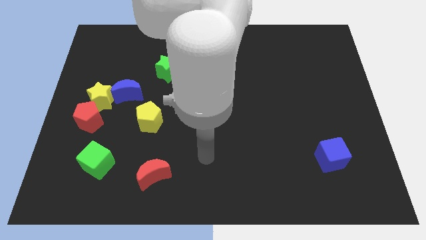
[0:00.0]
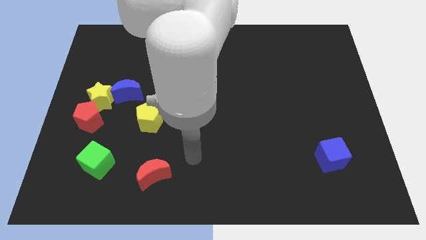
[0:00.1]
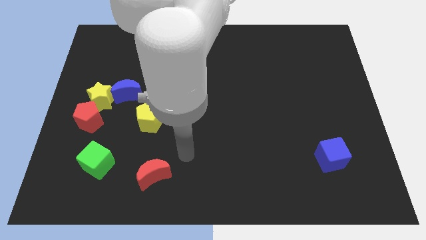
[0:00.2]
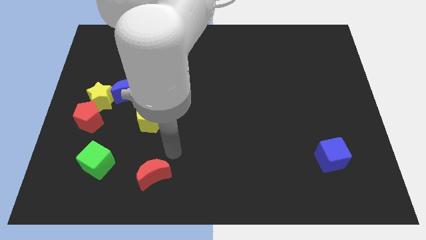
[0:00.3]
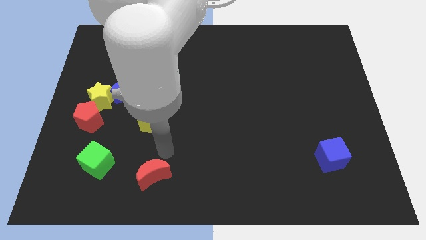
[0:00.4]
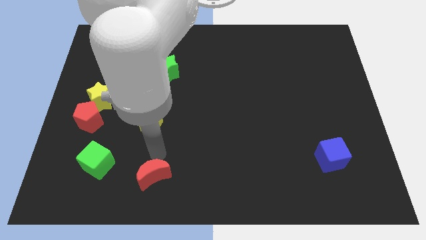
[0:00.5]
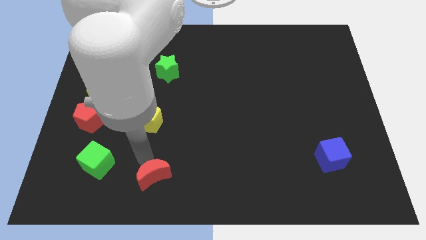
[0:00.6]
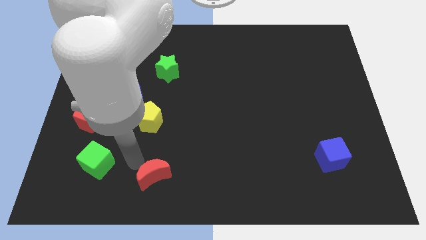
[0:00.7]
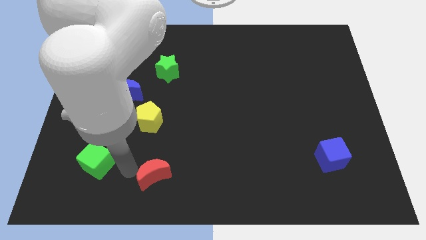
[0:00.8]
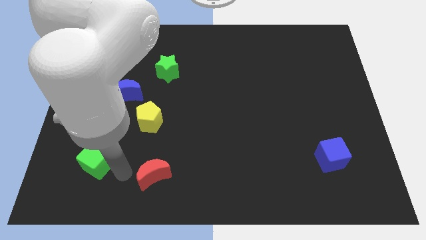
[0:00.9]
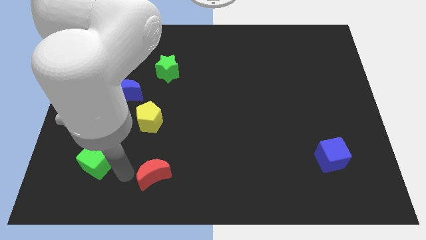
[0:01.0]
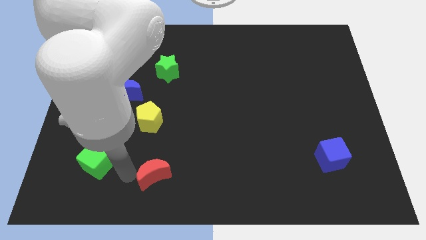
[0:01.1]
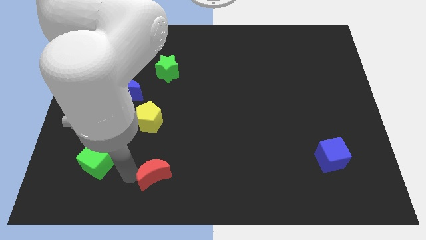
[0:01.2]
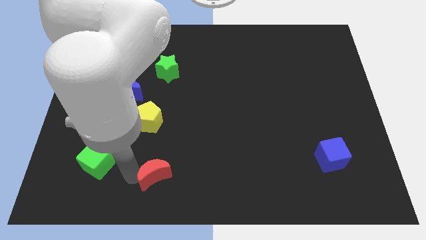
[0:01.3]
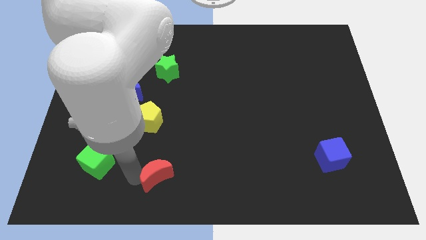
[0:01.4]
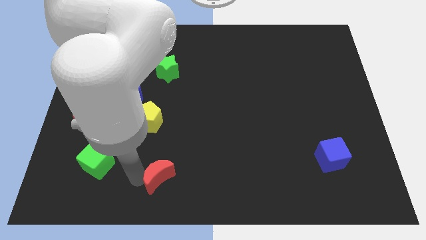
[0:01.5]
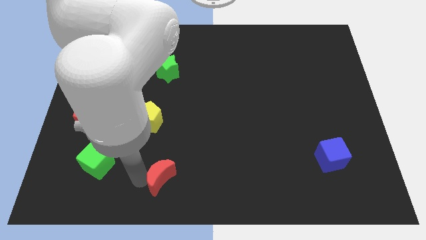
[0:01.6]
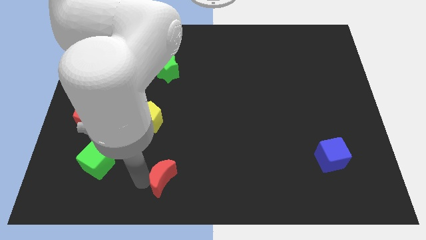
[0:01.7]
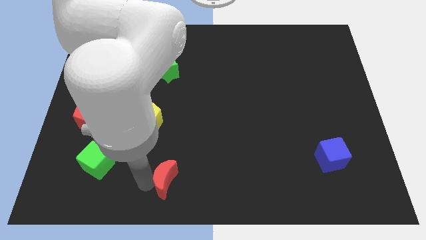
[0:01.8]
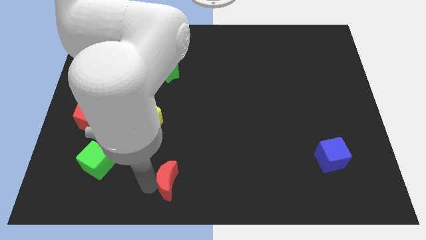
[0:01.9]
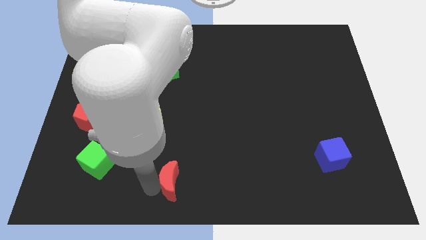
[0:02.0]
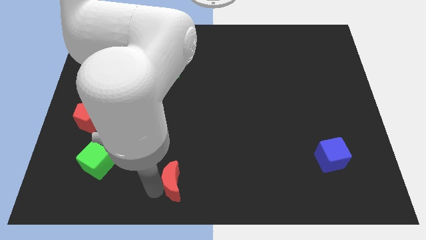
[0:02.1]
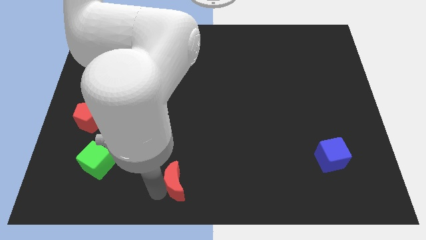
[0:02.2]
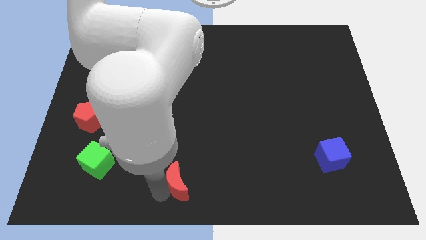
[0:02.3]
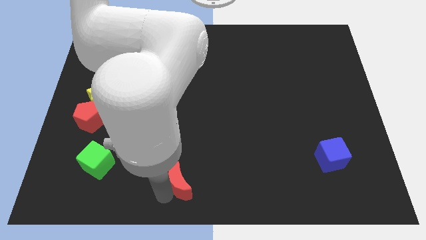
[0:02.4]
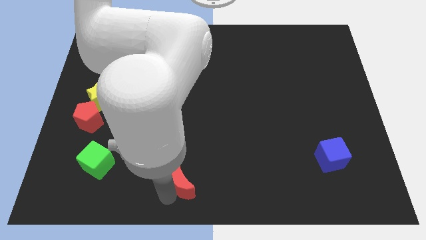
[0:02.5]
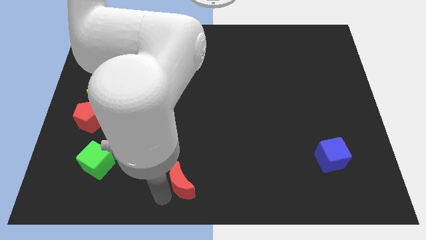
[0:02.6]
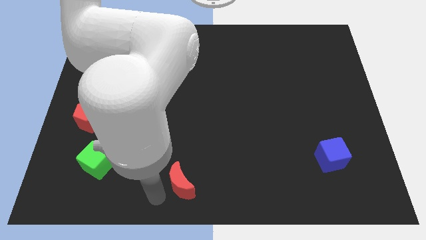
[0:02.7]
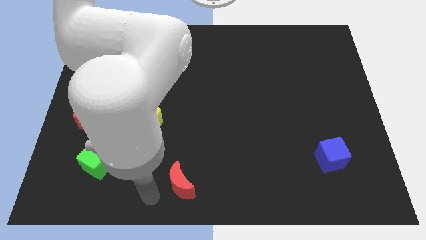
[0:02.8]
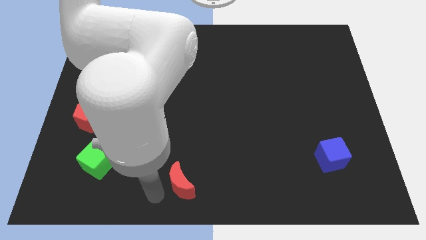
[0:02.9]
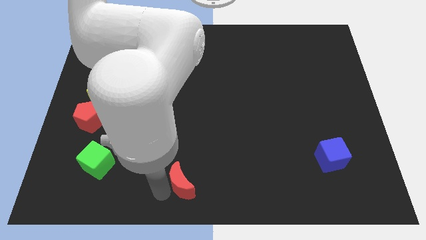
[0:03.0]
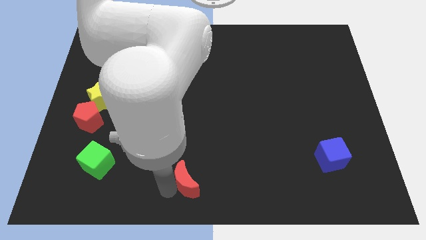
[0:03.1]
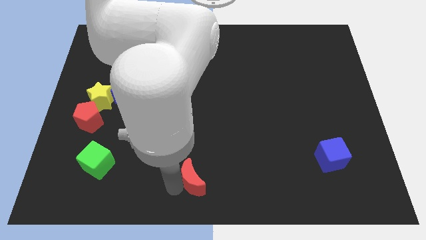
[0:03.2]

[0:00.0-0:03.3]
slightly push the red moon to the right

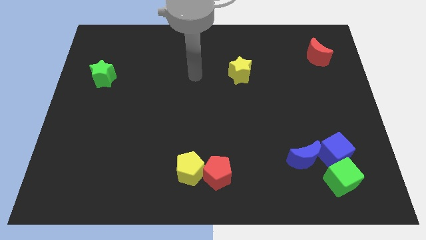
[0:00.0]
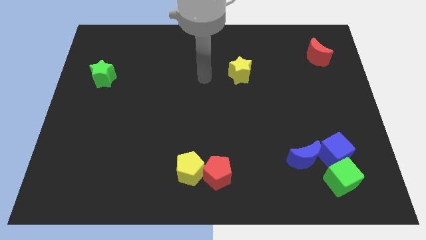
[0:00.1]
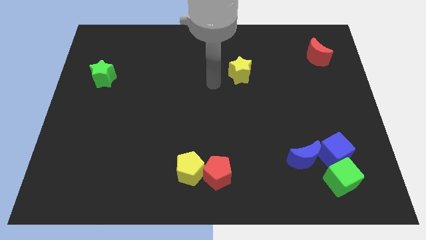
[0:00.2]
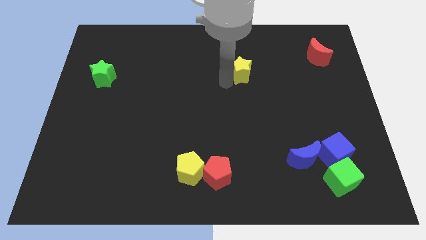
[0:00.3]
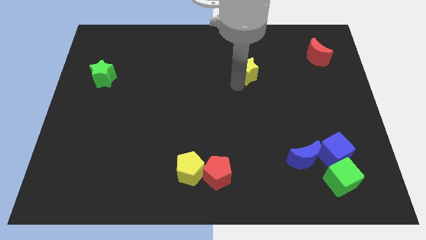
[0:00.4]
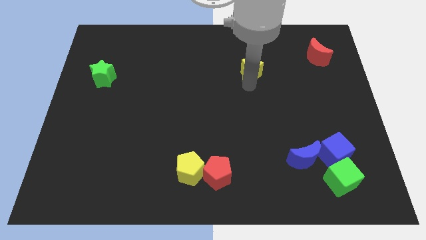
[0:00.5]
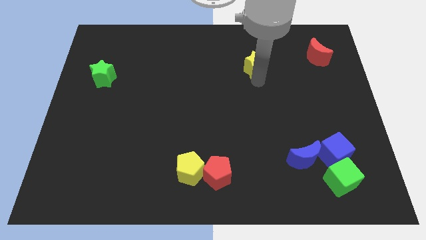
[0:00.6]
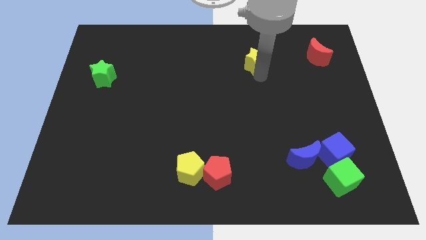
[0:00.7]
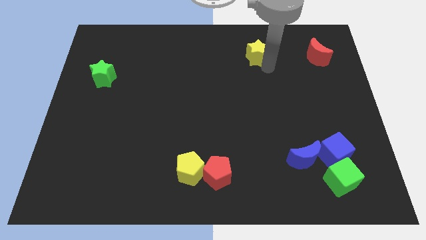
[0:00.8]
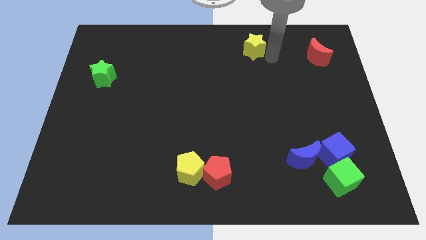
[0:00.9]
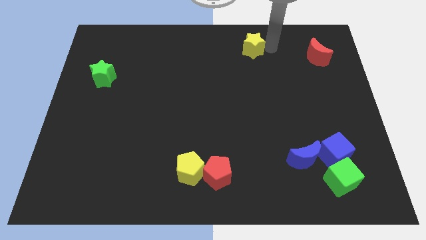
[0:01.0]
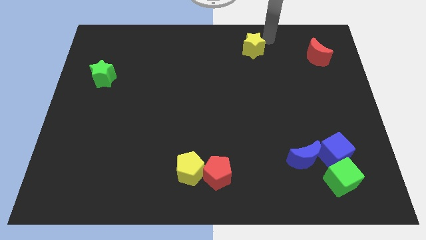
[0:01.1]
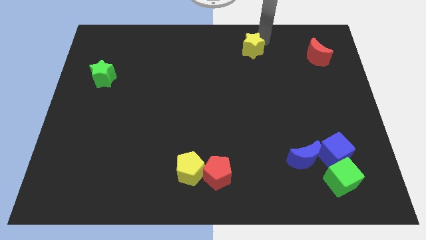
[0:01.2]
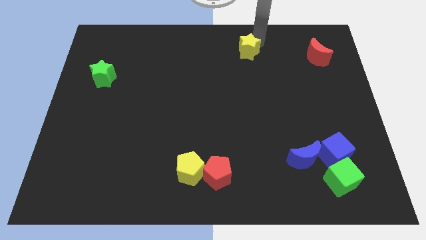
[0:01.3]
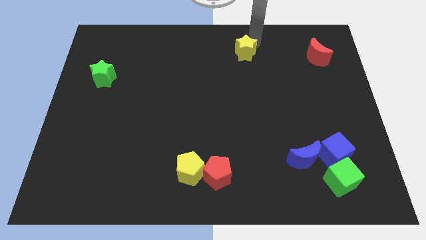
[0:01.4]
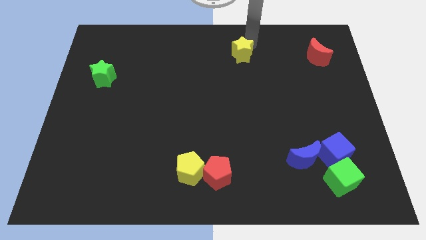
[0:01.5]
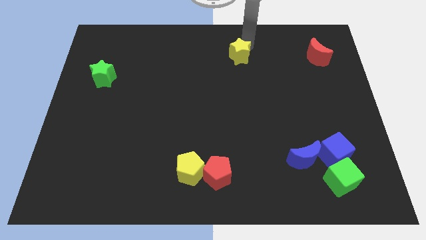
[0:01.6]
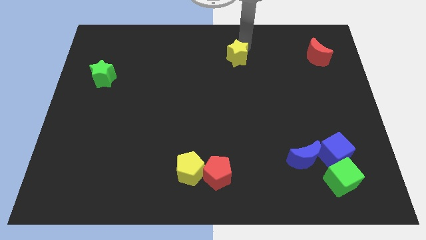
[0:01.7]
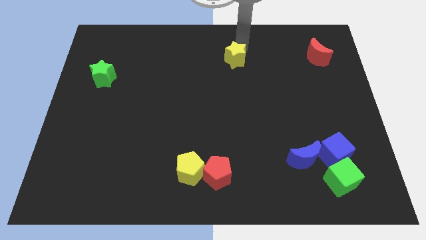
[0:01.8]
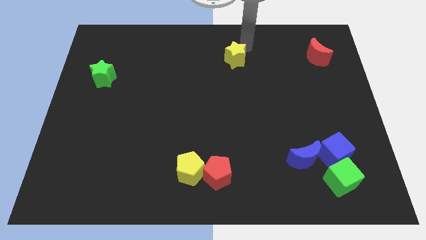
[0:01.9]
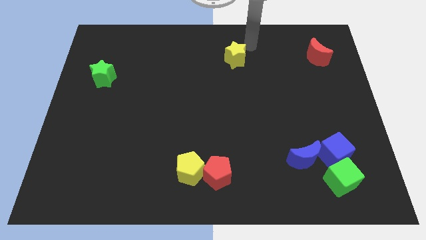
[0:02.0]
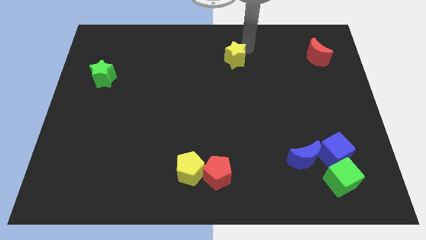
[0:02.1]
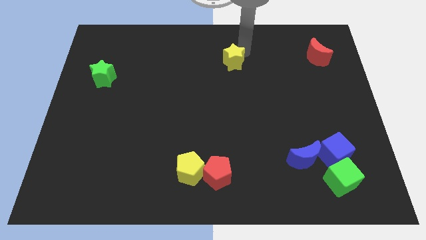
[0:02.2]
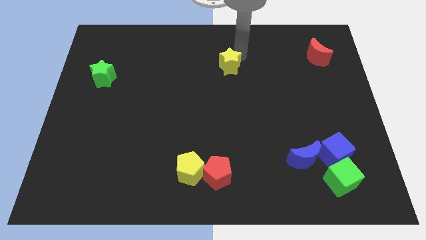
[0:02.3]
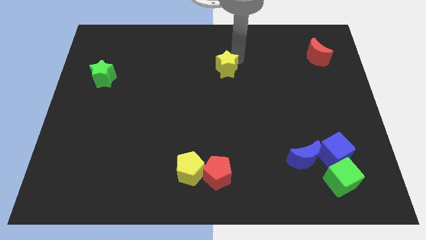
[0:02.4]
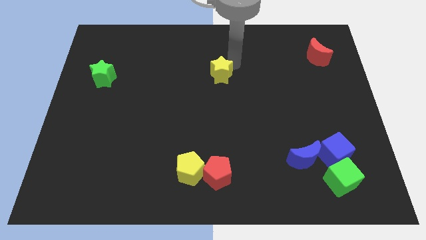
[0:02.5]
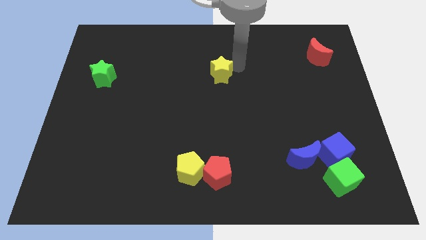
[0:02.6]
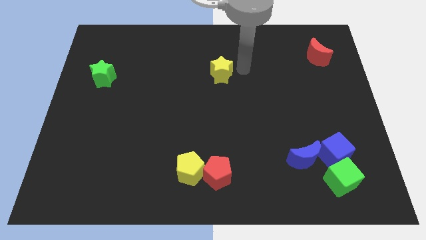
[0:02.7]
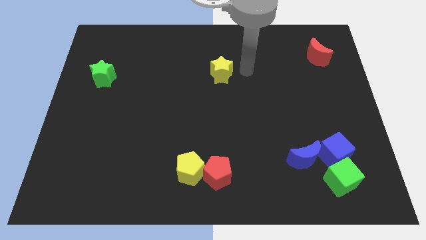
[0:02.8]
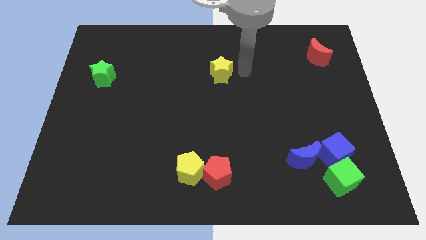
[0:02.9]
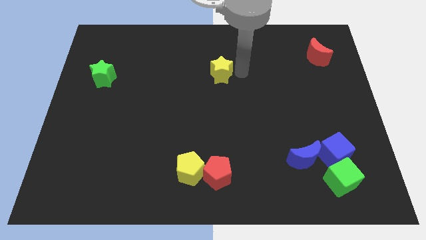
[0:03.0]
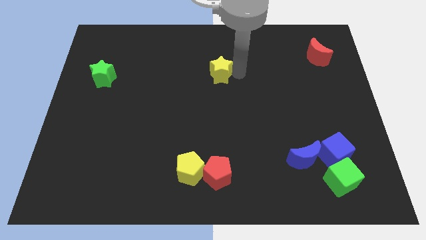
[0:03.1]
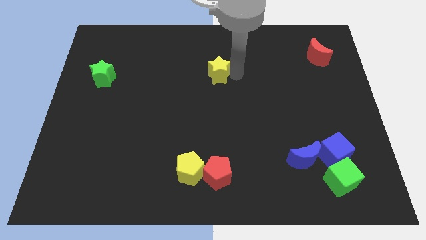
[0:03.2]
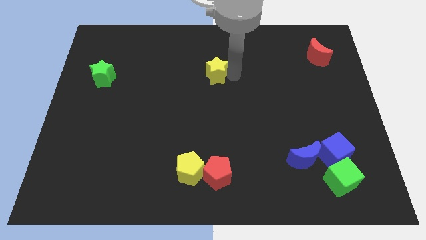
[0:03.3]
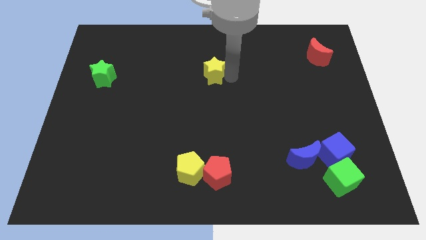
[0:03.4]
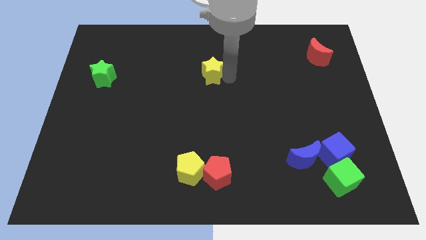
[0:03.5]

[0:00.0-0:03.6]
move the yellow star to the left slightly

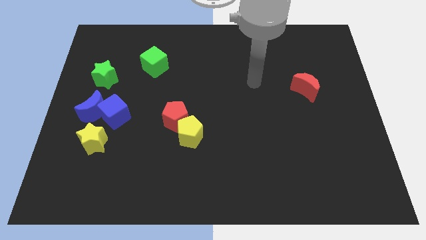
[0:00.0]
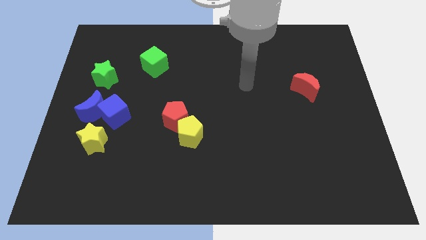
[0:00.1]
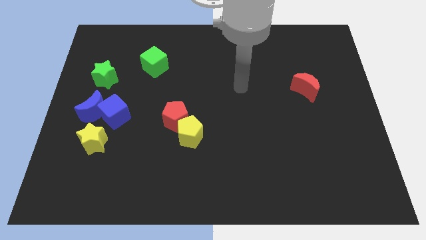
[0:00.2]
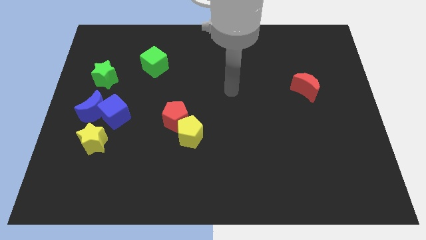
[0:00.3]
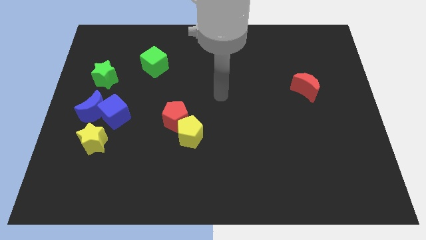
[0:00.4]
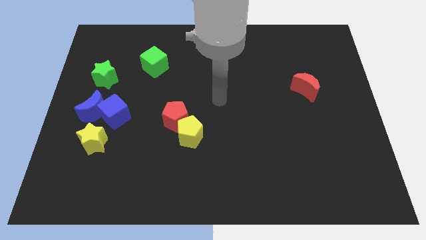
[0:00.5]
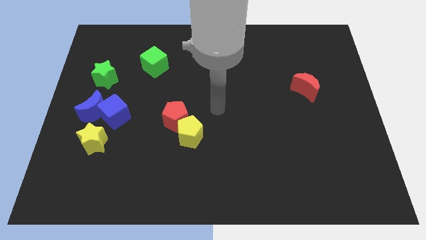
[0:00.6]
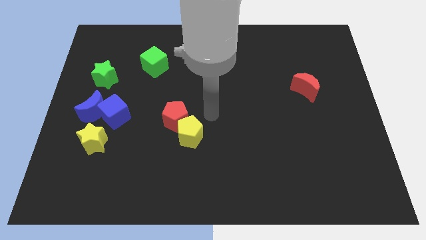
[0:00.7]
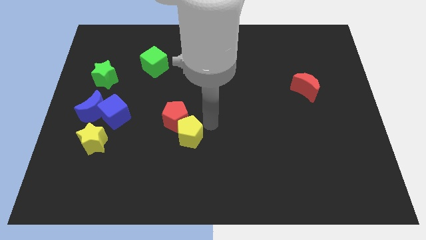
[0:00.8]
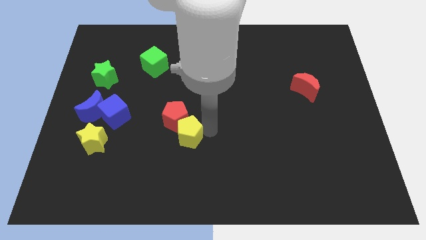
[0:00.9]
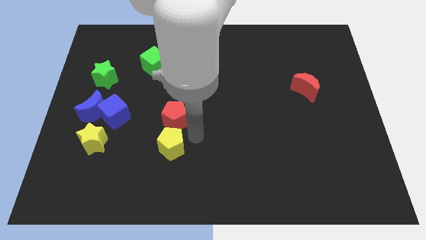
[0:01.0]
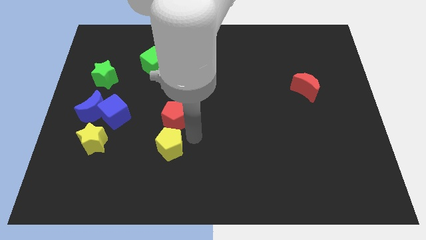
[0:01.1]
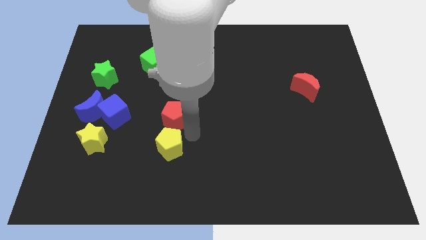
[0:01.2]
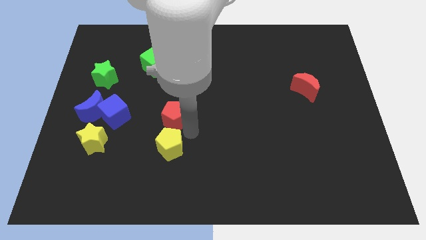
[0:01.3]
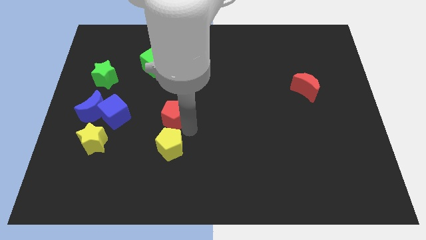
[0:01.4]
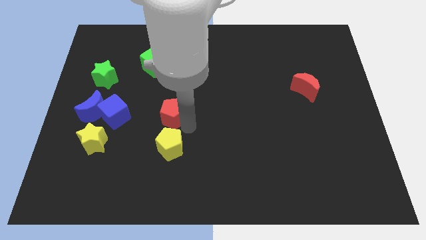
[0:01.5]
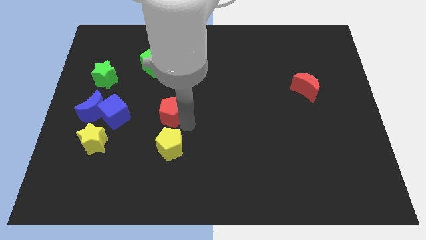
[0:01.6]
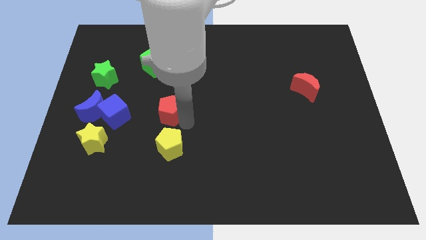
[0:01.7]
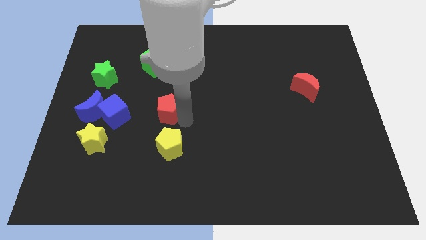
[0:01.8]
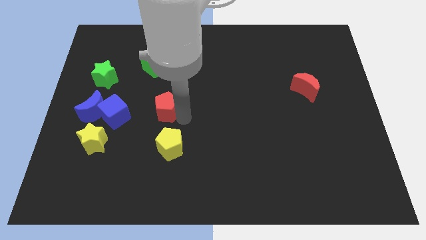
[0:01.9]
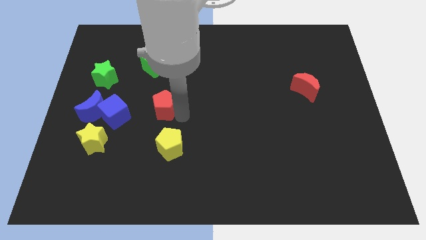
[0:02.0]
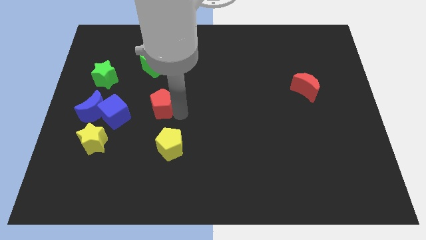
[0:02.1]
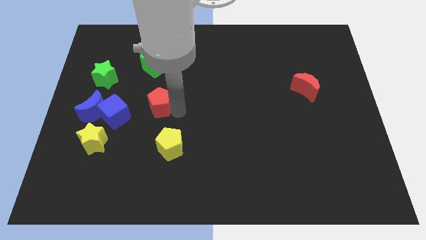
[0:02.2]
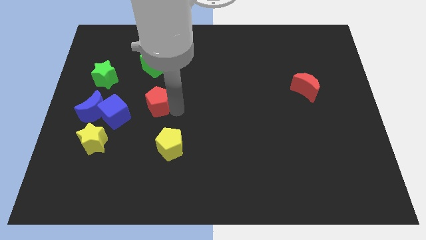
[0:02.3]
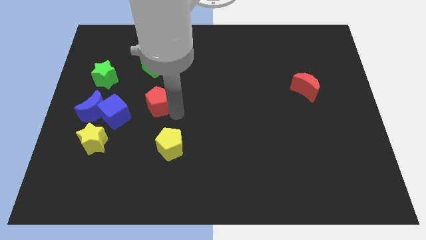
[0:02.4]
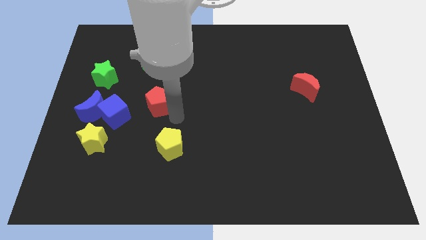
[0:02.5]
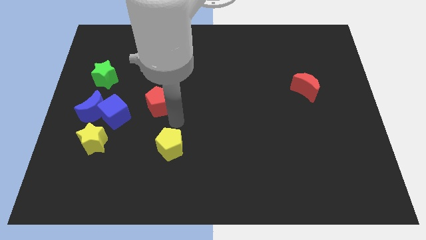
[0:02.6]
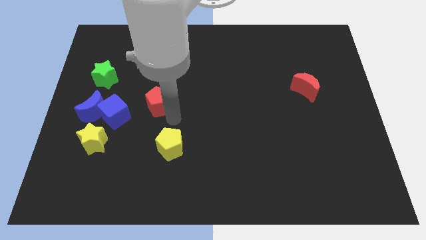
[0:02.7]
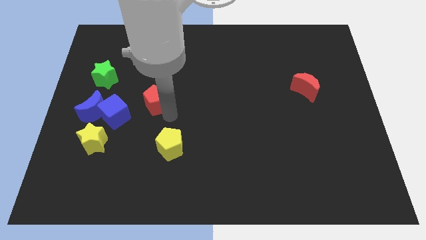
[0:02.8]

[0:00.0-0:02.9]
slide the red pentagon a bit up and to the left
